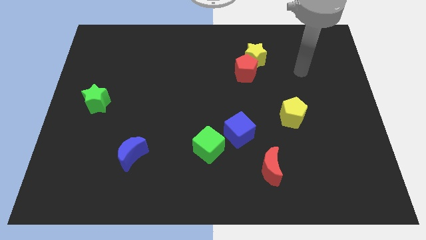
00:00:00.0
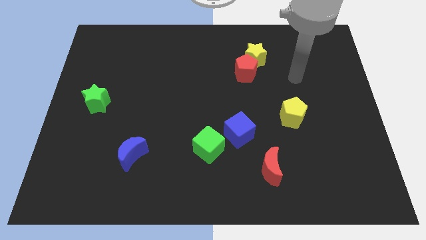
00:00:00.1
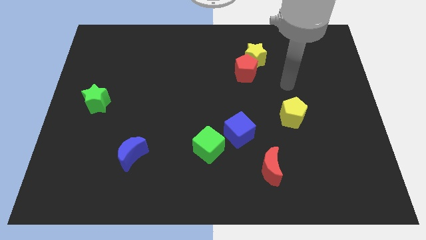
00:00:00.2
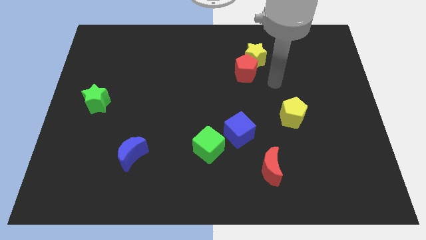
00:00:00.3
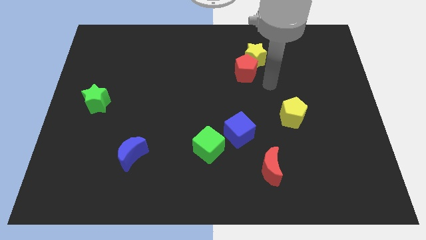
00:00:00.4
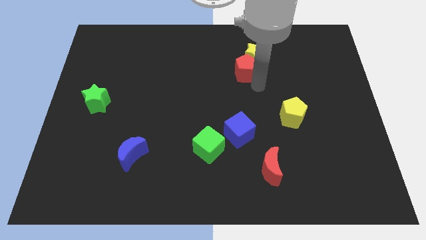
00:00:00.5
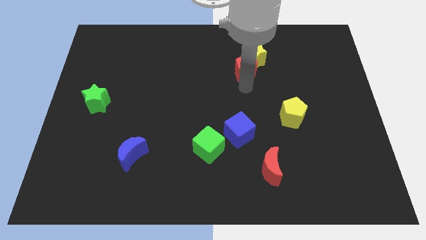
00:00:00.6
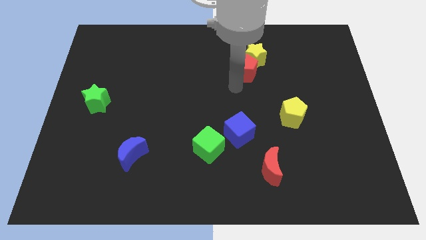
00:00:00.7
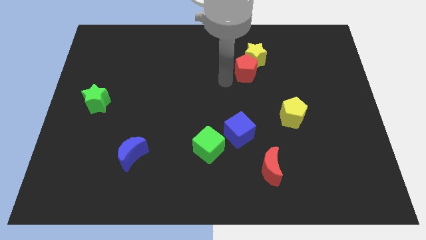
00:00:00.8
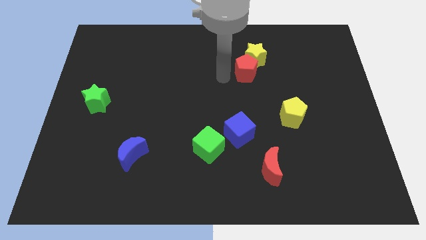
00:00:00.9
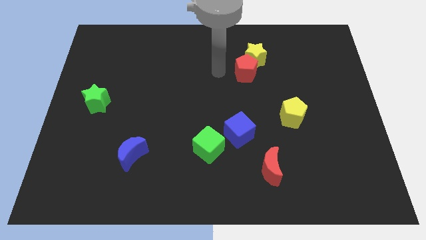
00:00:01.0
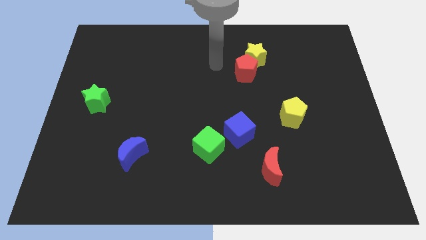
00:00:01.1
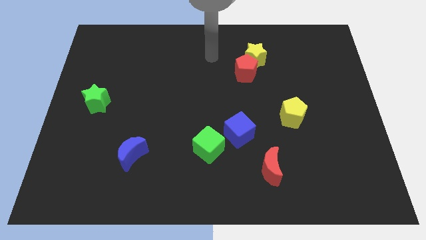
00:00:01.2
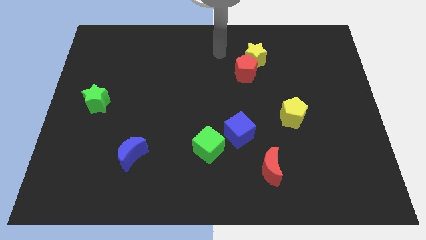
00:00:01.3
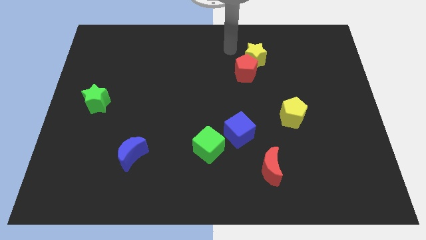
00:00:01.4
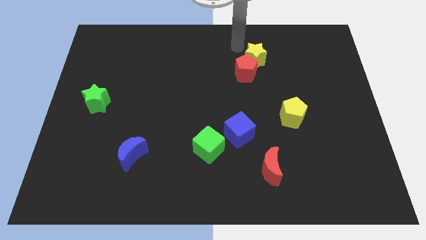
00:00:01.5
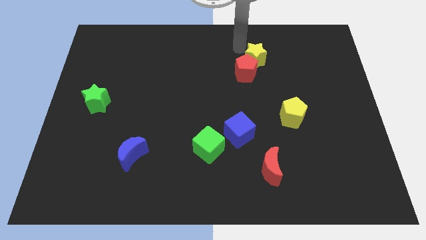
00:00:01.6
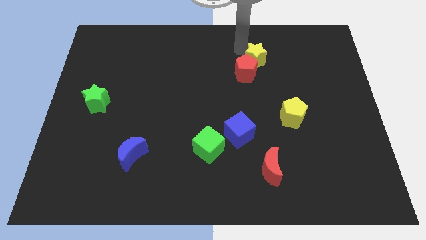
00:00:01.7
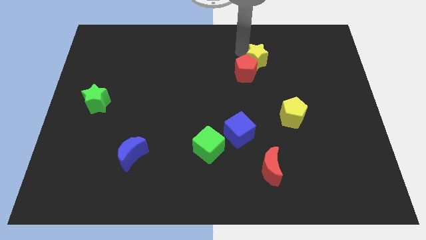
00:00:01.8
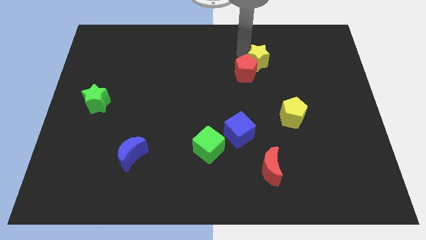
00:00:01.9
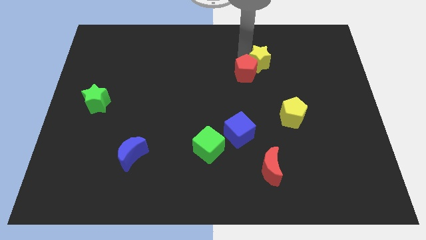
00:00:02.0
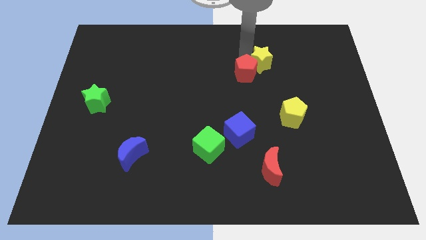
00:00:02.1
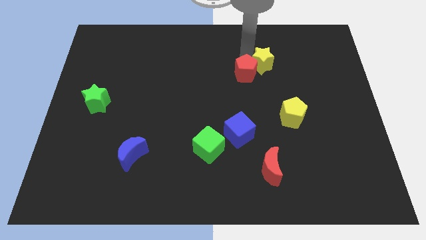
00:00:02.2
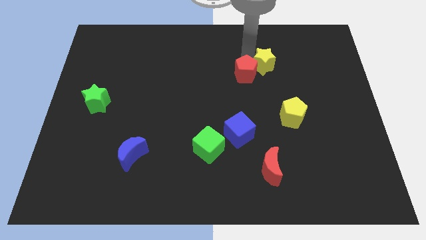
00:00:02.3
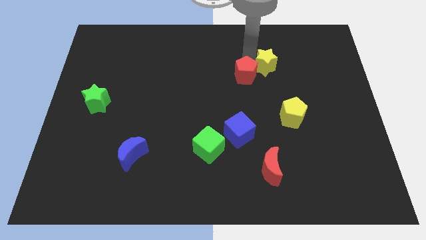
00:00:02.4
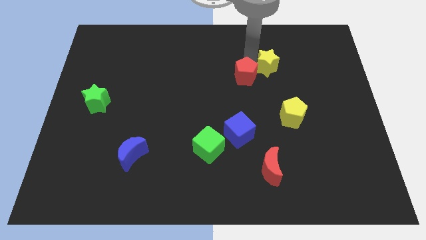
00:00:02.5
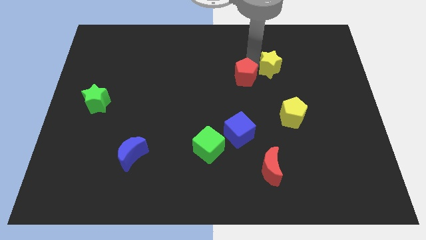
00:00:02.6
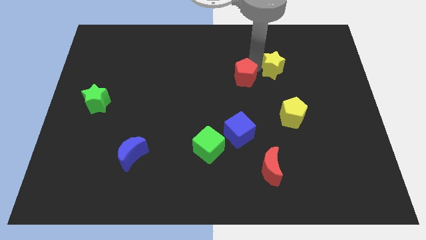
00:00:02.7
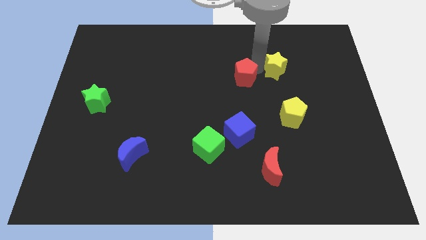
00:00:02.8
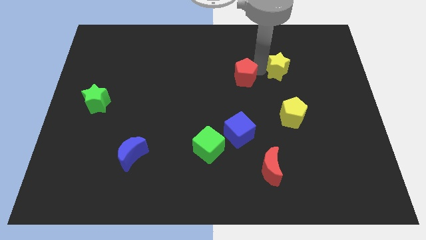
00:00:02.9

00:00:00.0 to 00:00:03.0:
slightly move the yellow star down and to the right

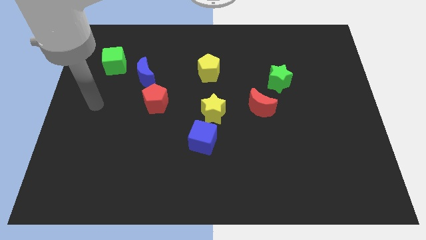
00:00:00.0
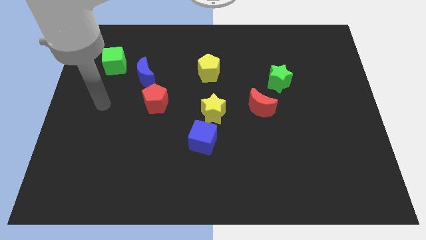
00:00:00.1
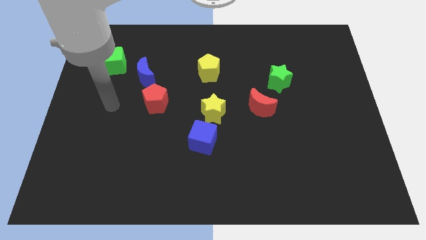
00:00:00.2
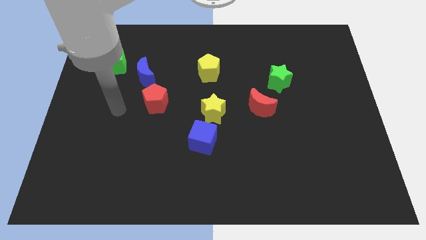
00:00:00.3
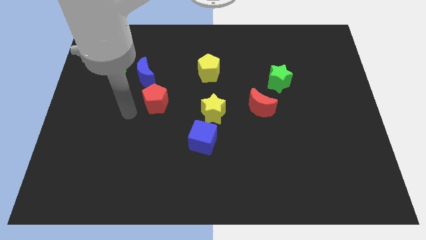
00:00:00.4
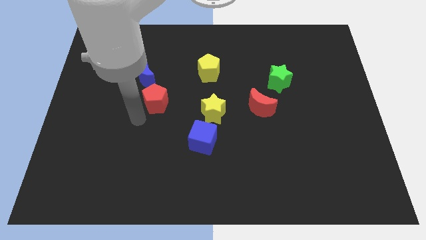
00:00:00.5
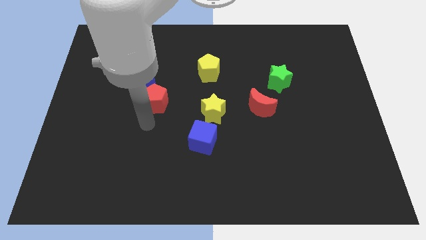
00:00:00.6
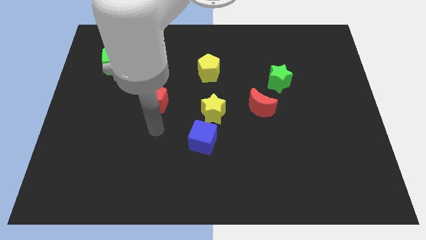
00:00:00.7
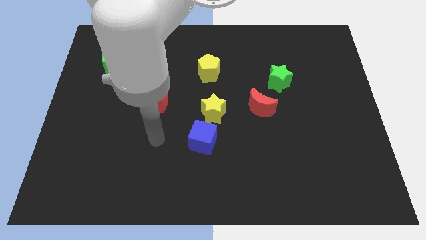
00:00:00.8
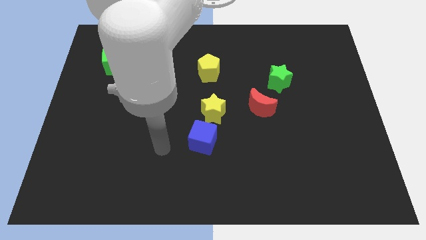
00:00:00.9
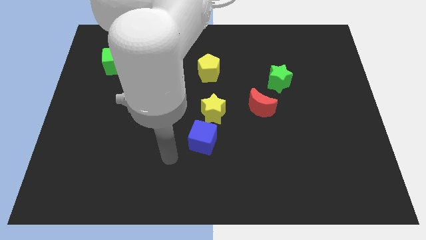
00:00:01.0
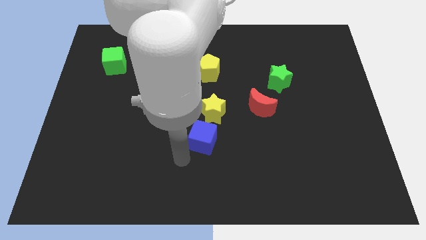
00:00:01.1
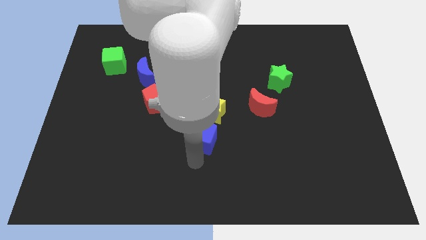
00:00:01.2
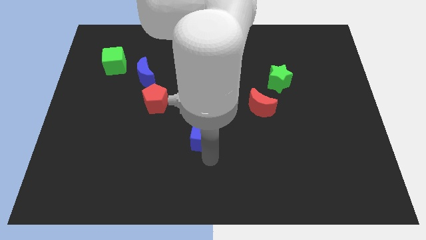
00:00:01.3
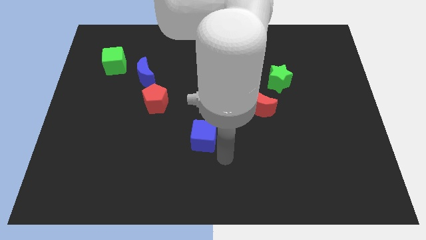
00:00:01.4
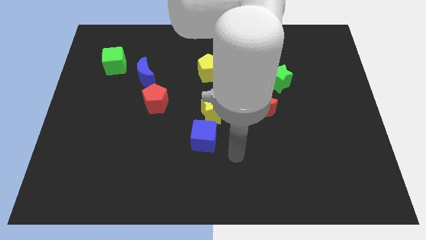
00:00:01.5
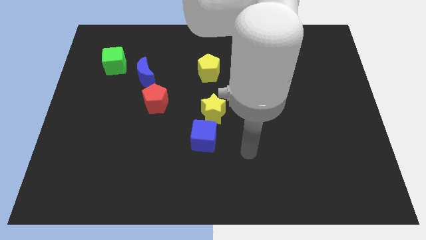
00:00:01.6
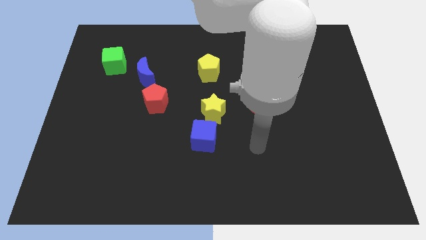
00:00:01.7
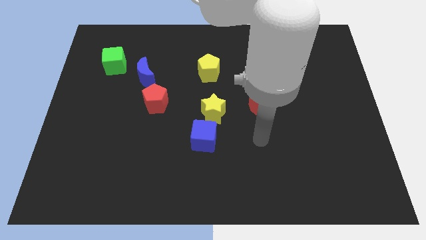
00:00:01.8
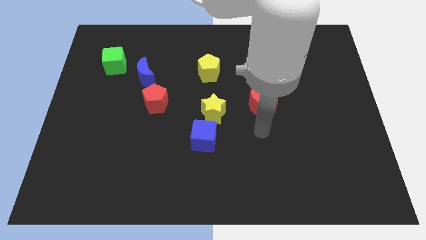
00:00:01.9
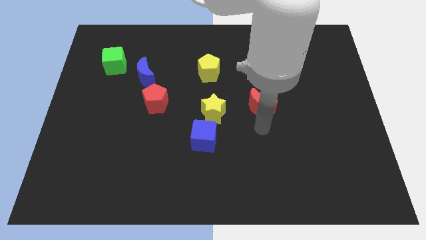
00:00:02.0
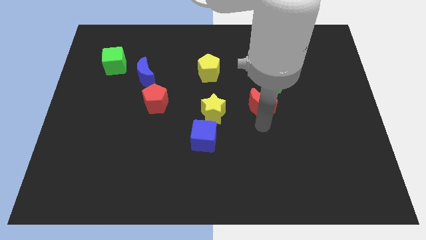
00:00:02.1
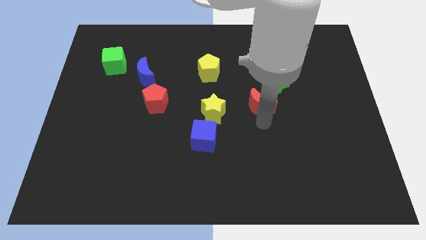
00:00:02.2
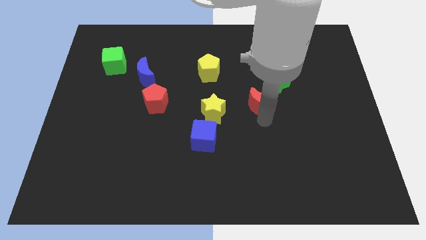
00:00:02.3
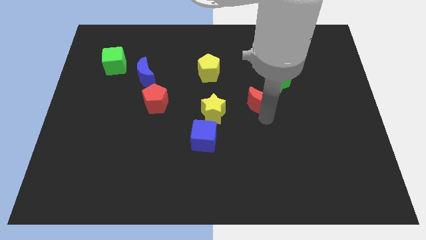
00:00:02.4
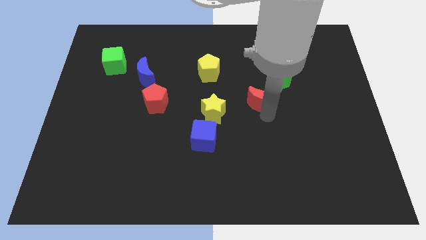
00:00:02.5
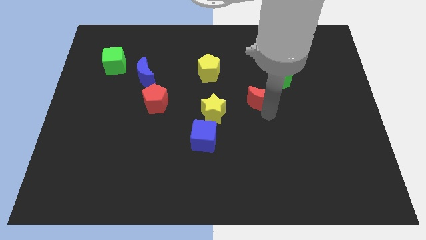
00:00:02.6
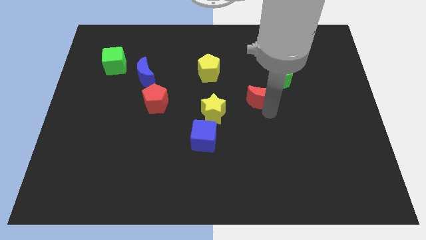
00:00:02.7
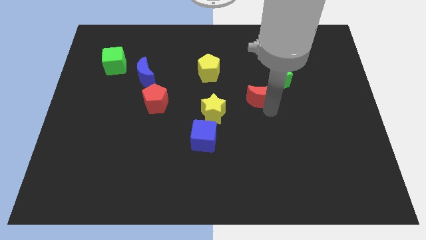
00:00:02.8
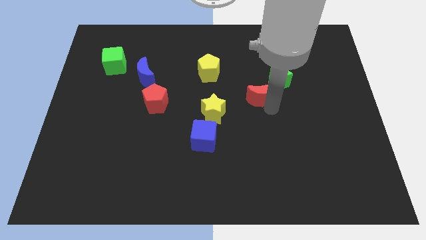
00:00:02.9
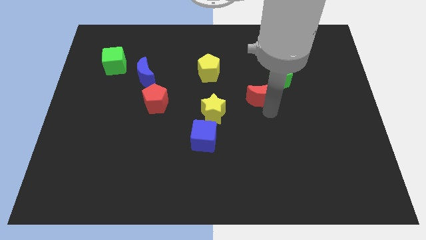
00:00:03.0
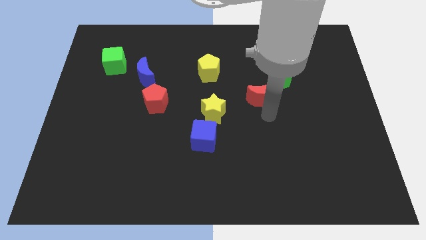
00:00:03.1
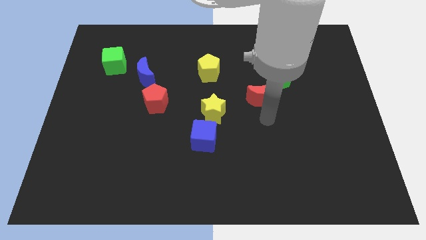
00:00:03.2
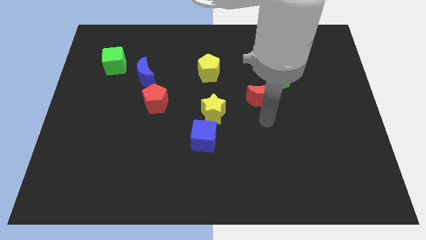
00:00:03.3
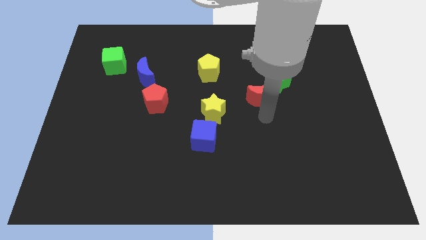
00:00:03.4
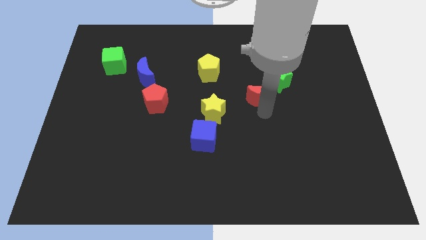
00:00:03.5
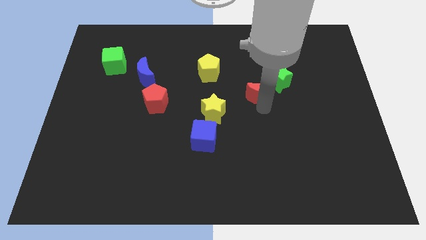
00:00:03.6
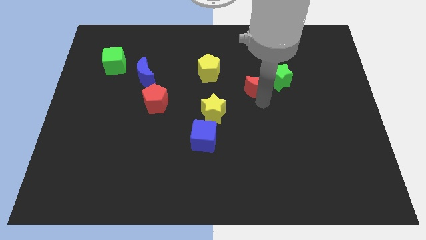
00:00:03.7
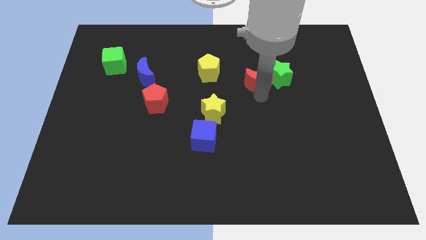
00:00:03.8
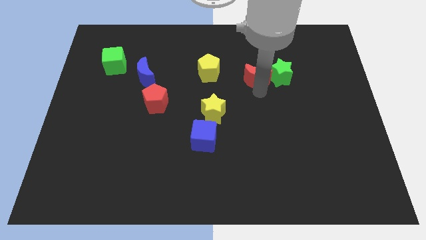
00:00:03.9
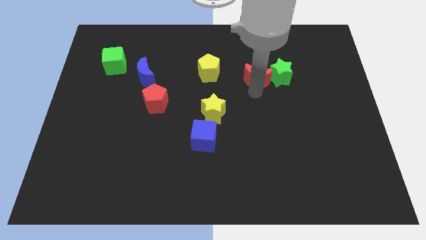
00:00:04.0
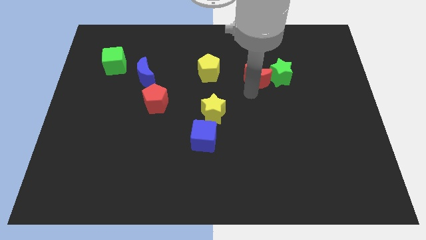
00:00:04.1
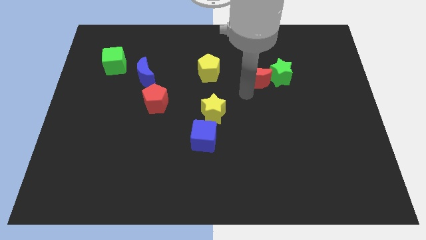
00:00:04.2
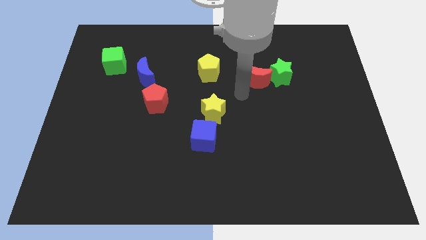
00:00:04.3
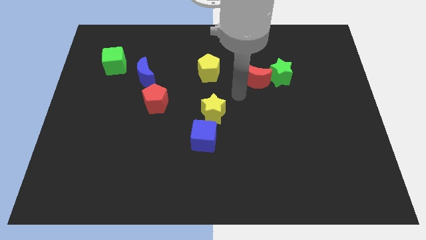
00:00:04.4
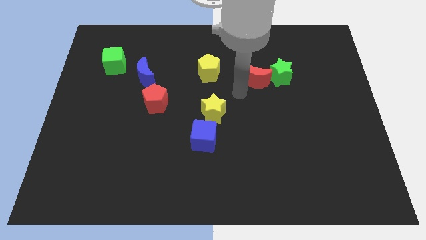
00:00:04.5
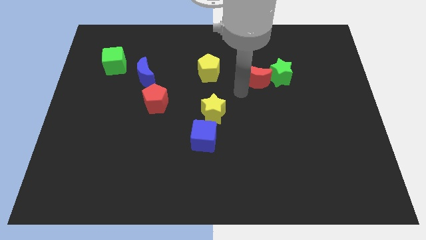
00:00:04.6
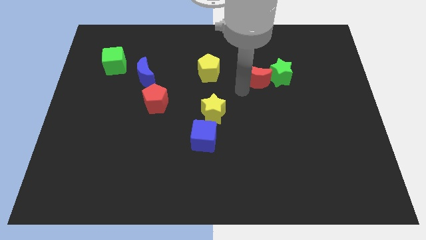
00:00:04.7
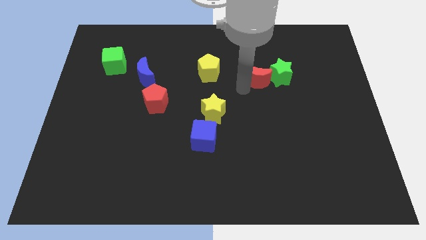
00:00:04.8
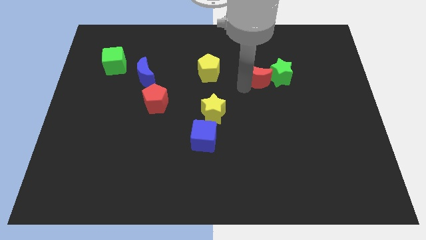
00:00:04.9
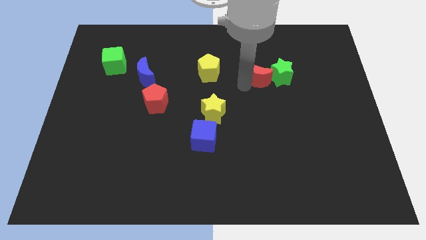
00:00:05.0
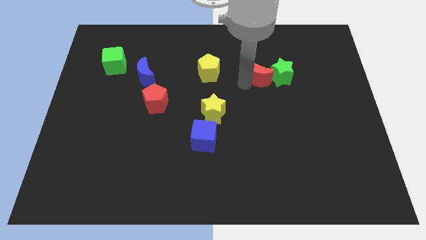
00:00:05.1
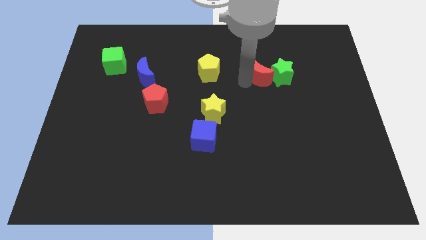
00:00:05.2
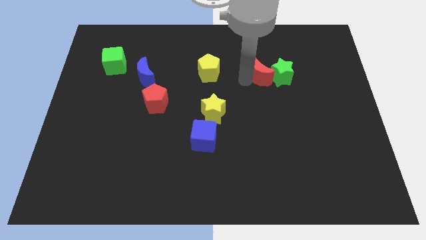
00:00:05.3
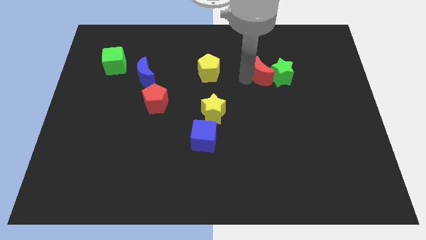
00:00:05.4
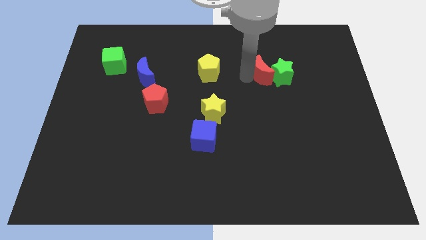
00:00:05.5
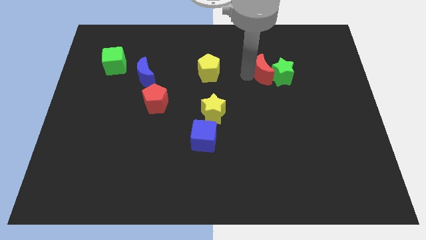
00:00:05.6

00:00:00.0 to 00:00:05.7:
move the red moon a little bit up and to the right
